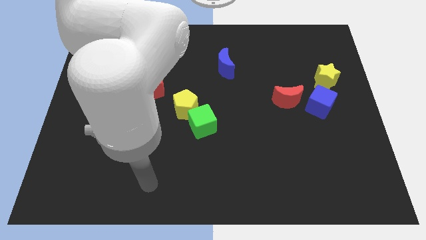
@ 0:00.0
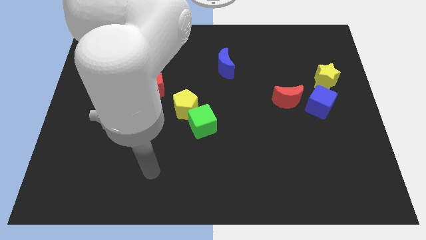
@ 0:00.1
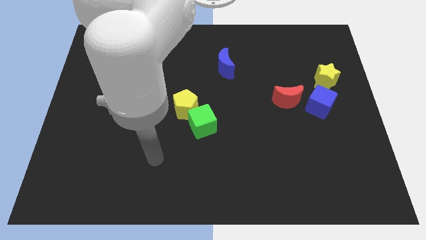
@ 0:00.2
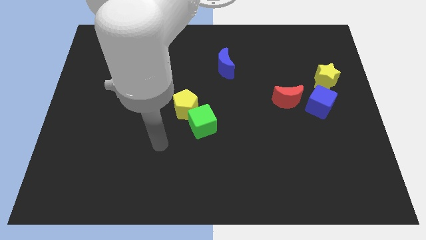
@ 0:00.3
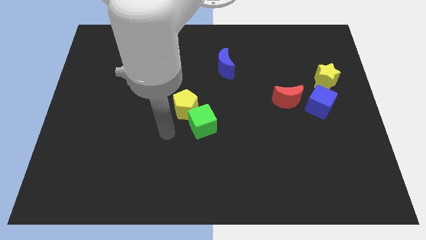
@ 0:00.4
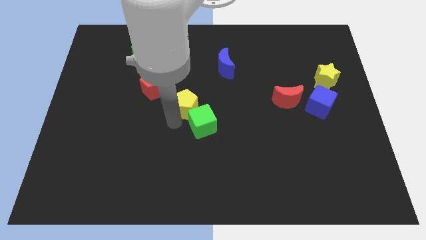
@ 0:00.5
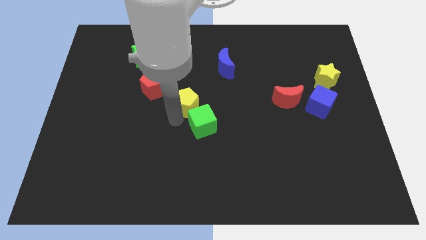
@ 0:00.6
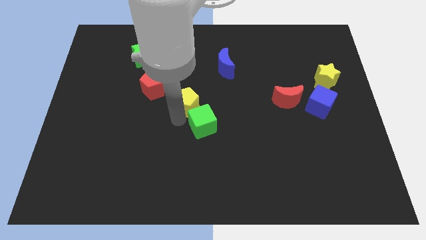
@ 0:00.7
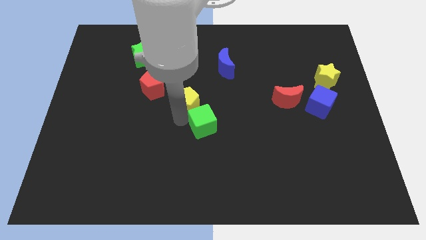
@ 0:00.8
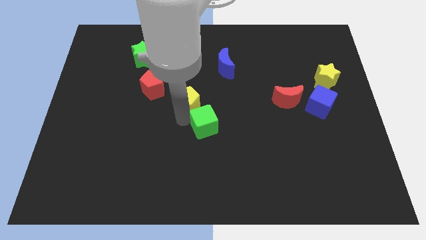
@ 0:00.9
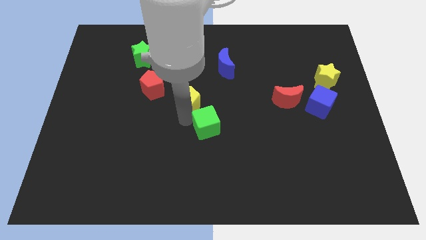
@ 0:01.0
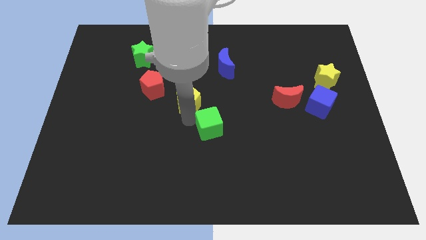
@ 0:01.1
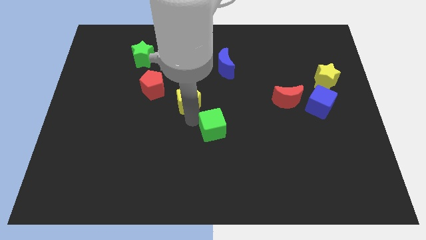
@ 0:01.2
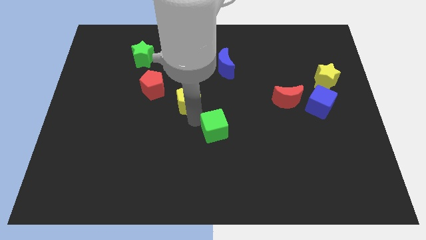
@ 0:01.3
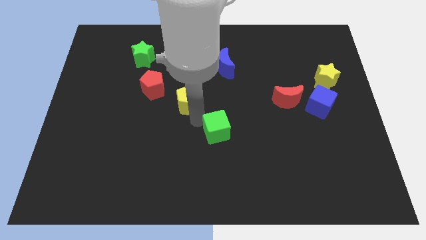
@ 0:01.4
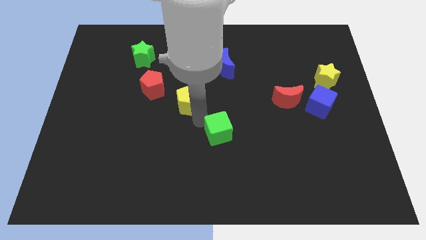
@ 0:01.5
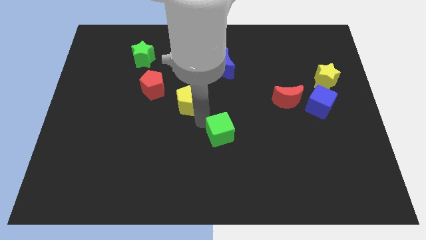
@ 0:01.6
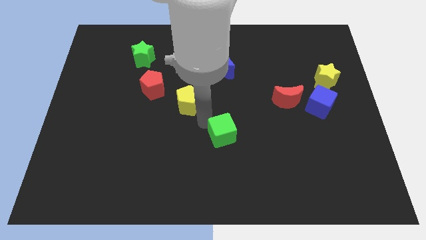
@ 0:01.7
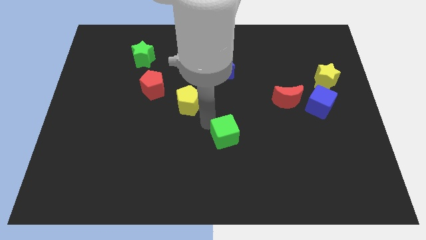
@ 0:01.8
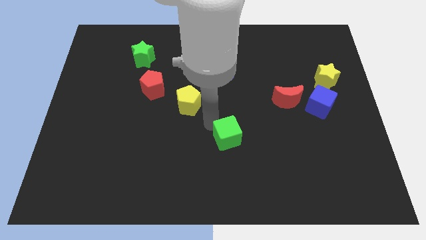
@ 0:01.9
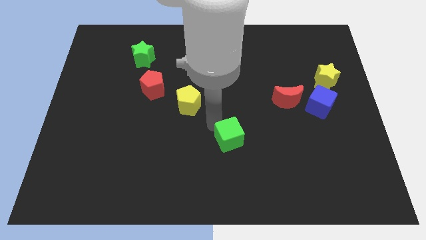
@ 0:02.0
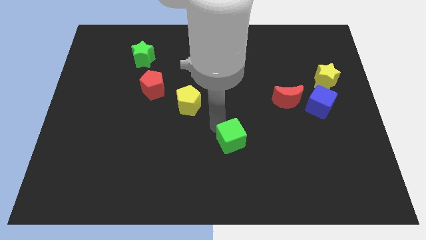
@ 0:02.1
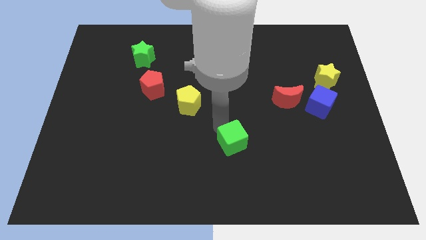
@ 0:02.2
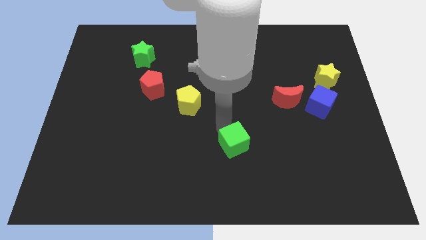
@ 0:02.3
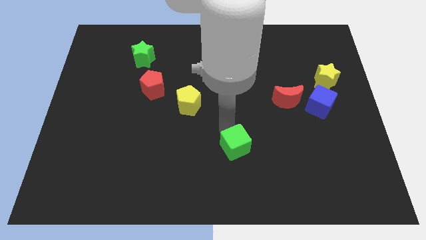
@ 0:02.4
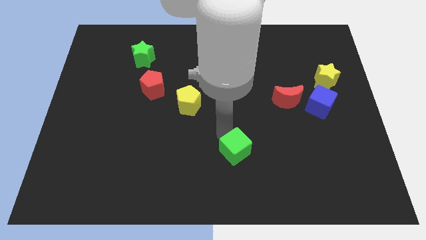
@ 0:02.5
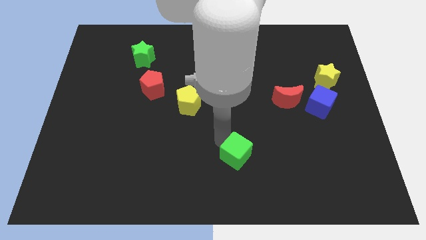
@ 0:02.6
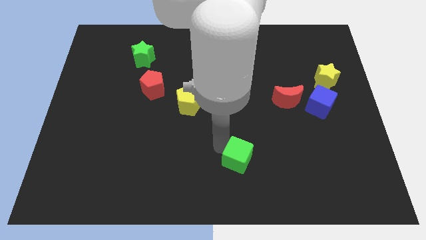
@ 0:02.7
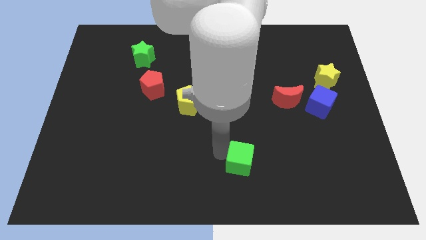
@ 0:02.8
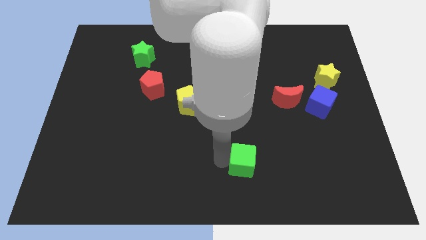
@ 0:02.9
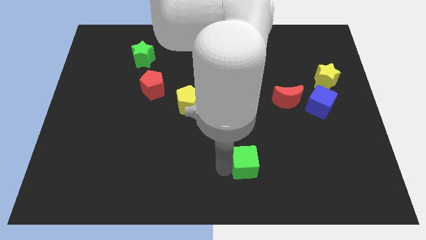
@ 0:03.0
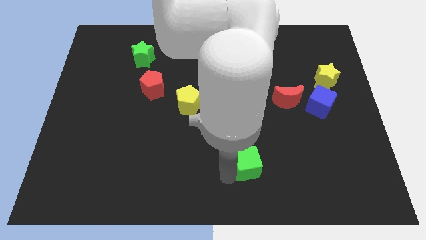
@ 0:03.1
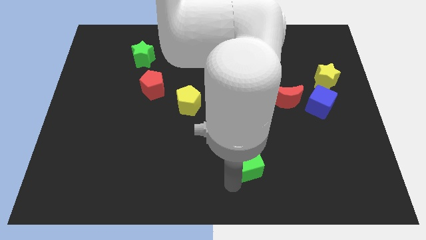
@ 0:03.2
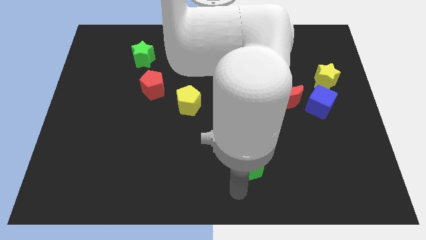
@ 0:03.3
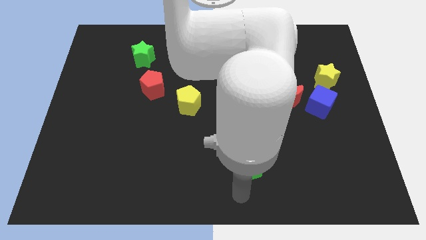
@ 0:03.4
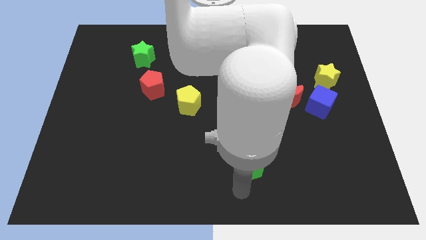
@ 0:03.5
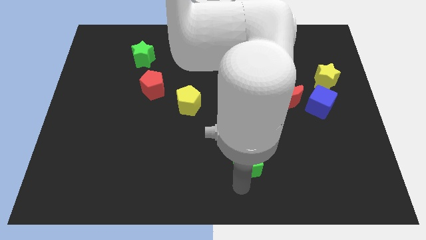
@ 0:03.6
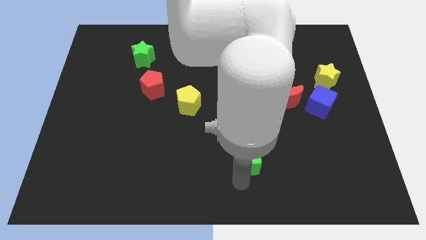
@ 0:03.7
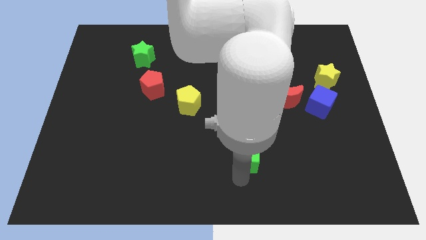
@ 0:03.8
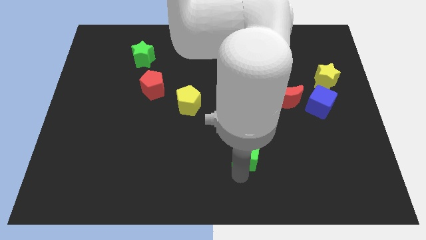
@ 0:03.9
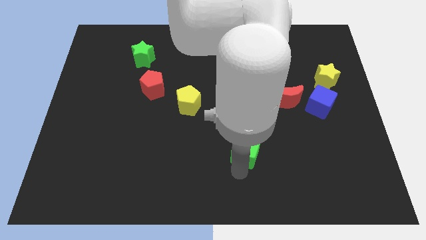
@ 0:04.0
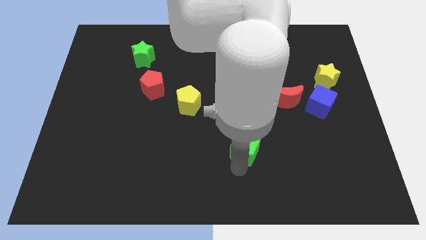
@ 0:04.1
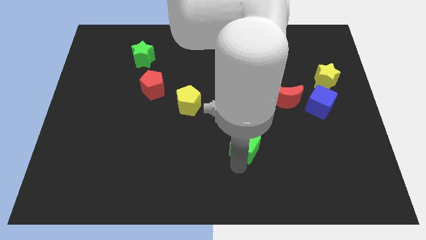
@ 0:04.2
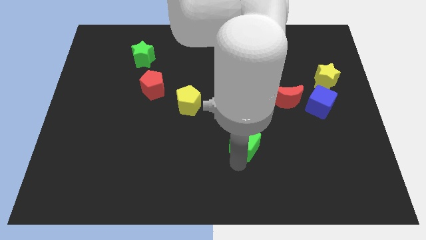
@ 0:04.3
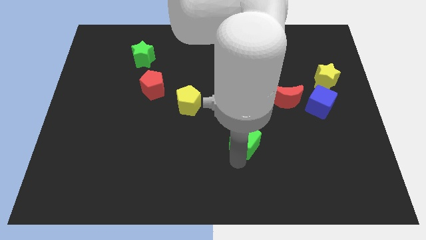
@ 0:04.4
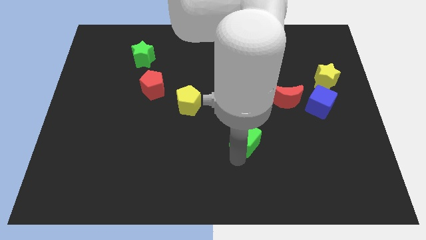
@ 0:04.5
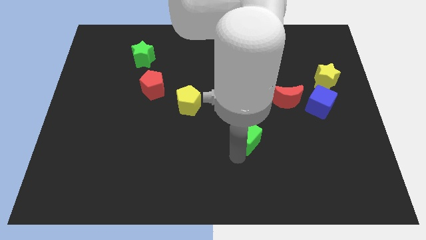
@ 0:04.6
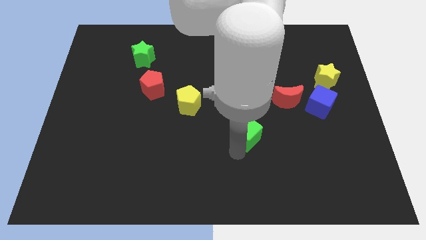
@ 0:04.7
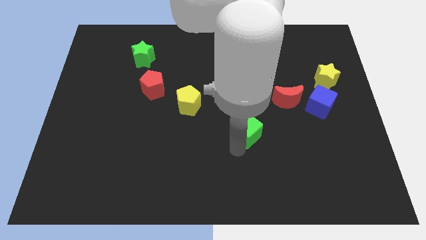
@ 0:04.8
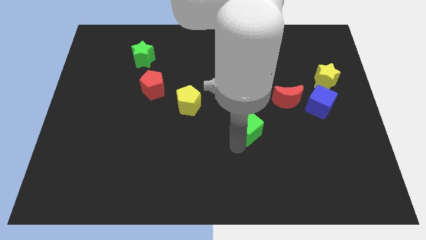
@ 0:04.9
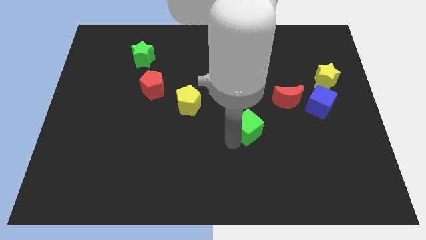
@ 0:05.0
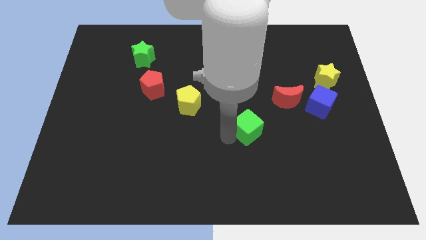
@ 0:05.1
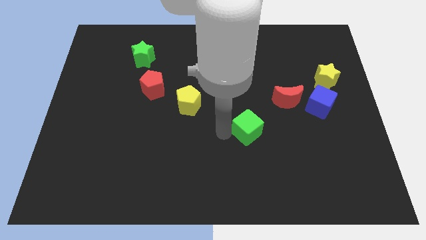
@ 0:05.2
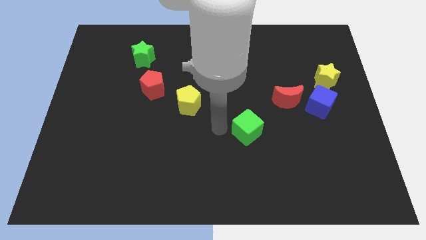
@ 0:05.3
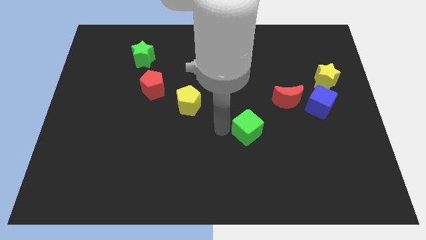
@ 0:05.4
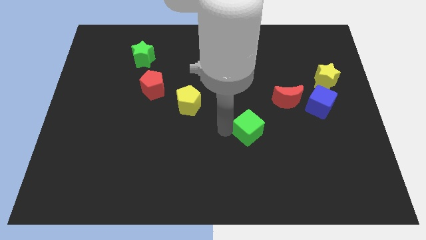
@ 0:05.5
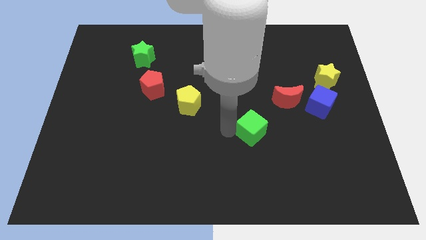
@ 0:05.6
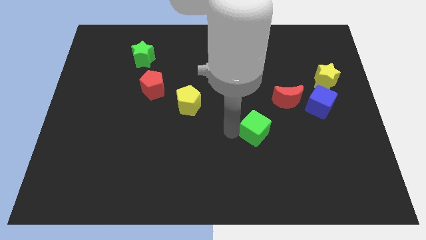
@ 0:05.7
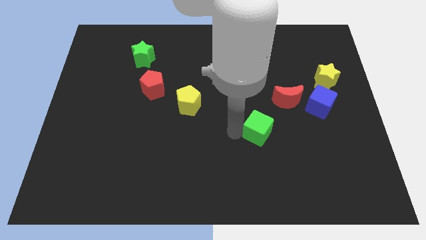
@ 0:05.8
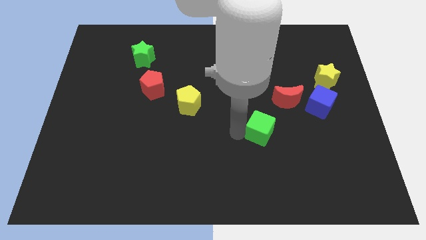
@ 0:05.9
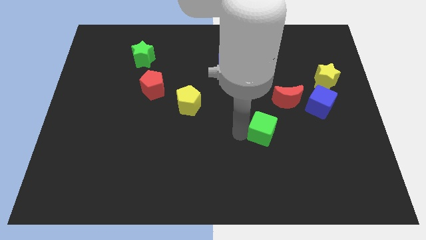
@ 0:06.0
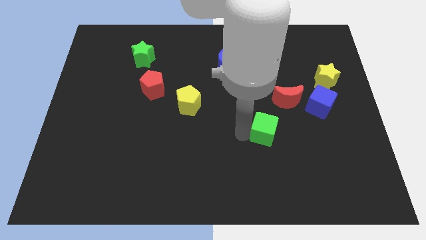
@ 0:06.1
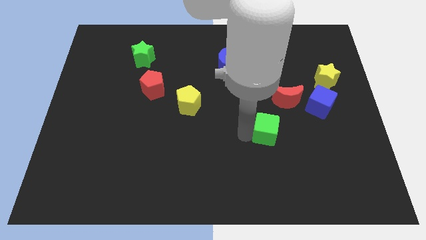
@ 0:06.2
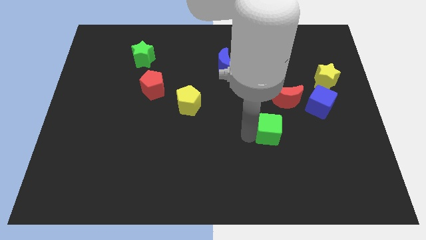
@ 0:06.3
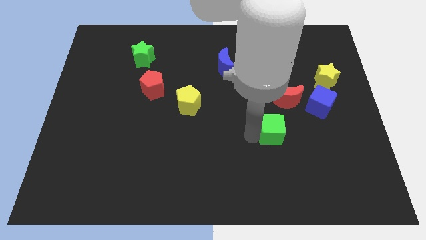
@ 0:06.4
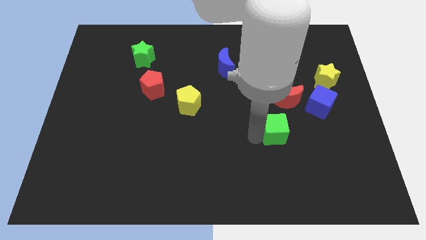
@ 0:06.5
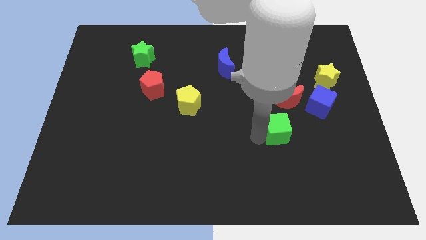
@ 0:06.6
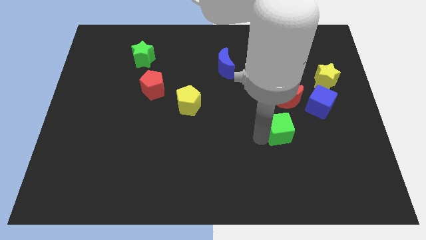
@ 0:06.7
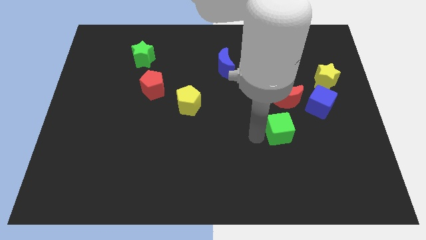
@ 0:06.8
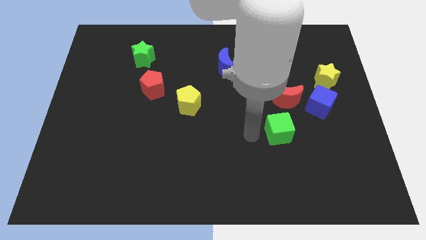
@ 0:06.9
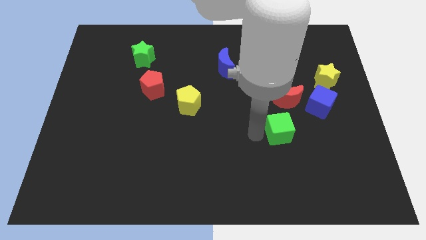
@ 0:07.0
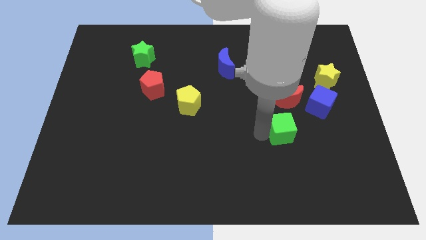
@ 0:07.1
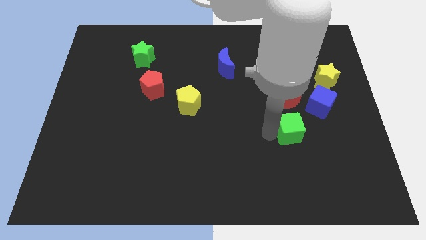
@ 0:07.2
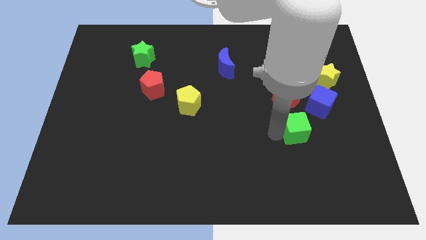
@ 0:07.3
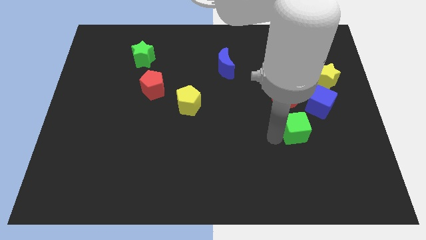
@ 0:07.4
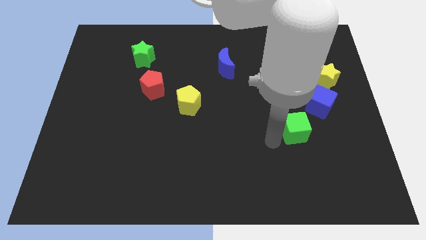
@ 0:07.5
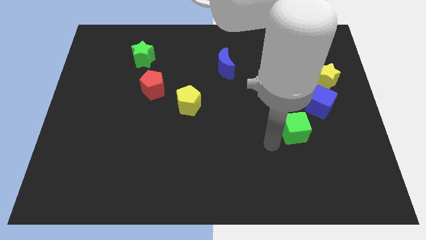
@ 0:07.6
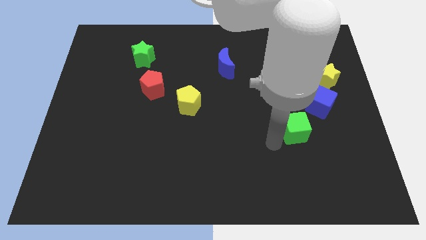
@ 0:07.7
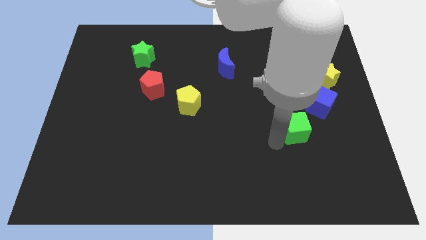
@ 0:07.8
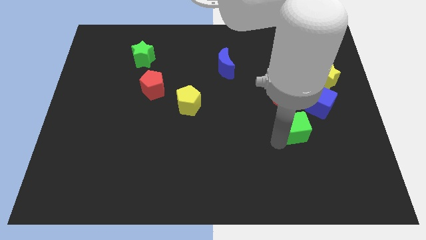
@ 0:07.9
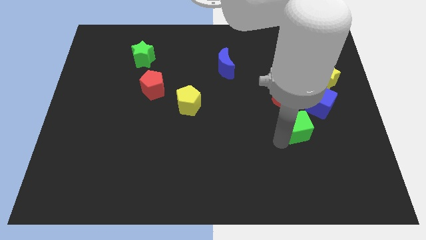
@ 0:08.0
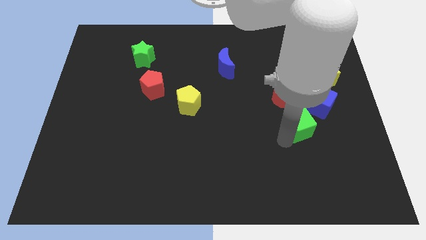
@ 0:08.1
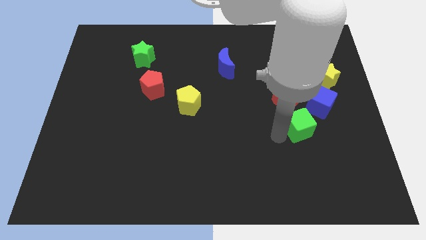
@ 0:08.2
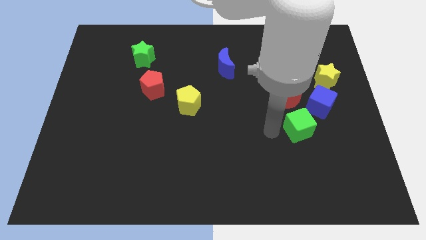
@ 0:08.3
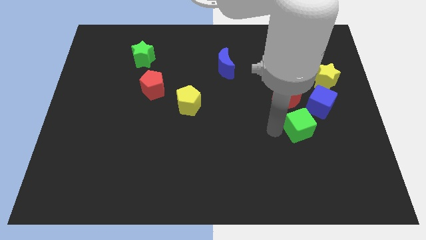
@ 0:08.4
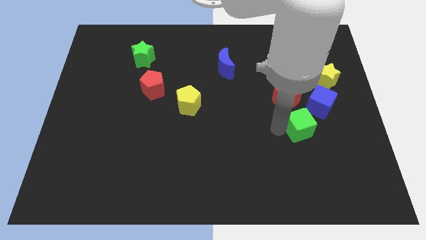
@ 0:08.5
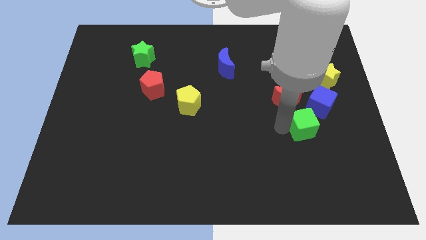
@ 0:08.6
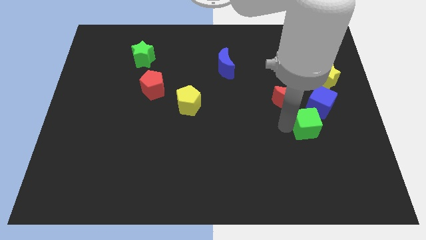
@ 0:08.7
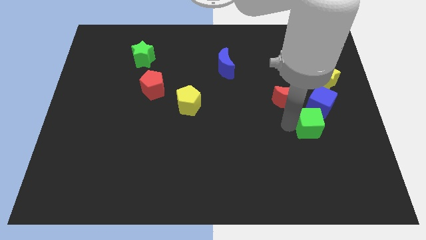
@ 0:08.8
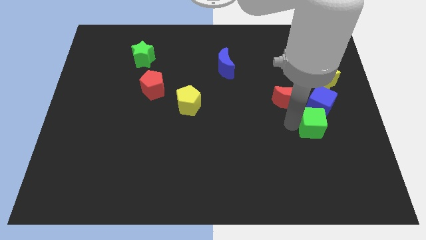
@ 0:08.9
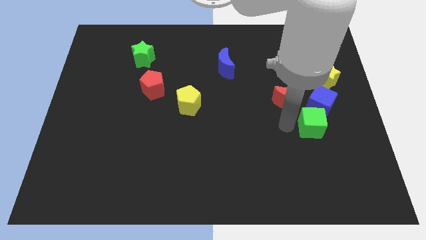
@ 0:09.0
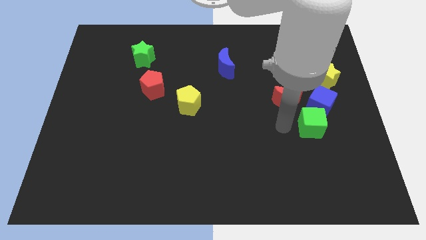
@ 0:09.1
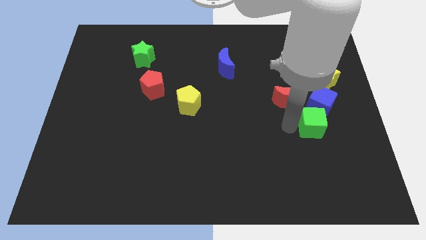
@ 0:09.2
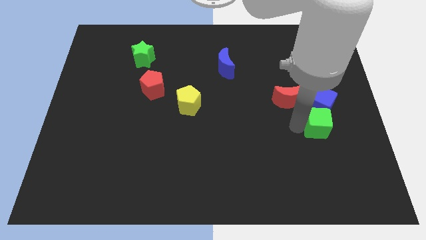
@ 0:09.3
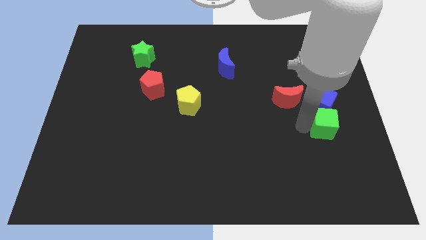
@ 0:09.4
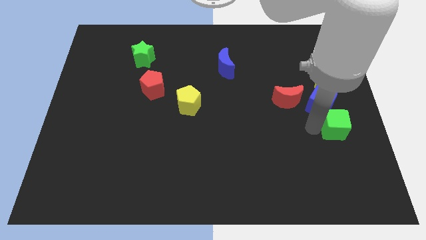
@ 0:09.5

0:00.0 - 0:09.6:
slide the green cube to the right side
